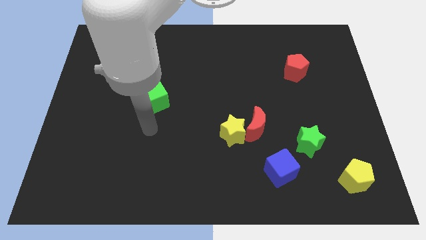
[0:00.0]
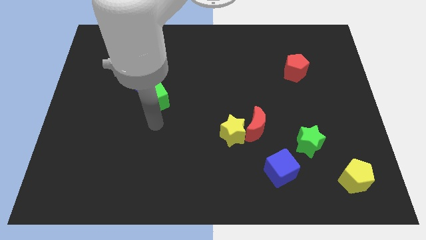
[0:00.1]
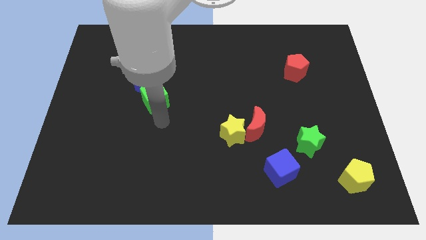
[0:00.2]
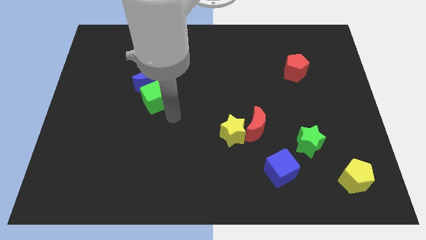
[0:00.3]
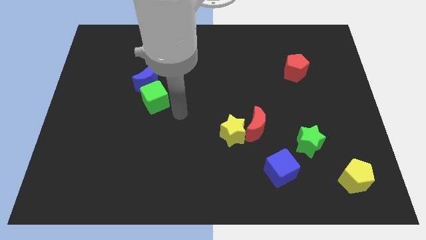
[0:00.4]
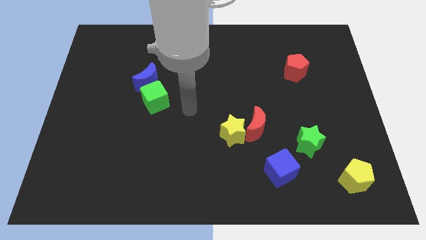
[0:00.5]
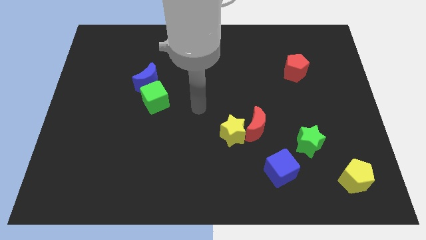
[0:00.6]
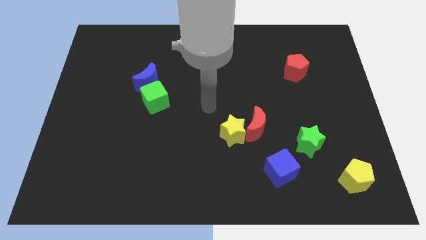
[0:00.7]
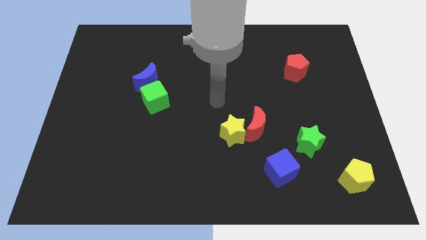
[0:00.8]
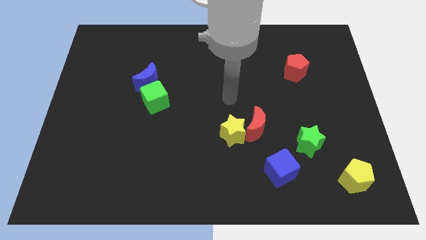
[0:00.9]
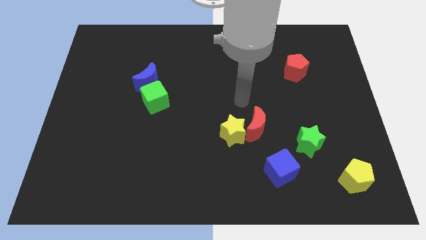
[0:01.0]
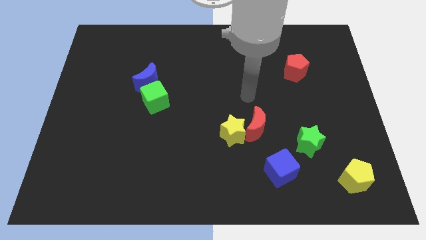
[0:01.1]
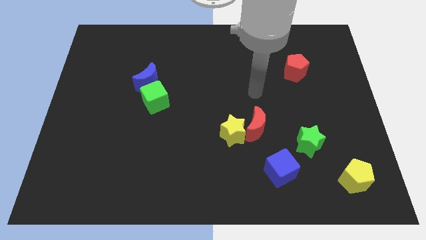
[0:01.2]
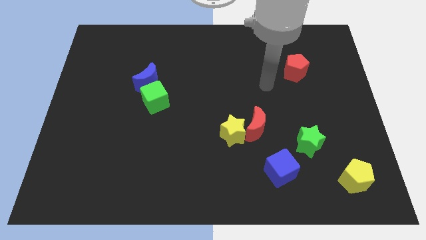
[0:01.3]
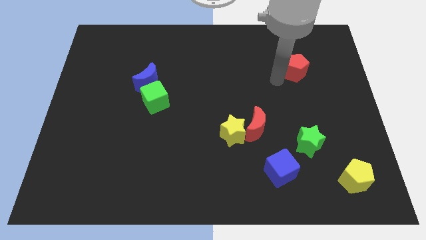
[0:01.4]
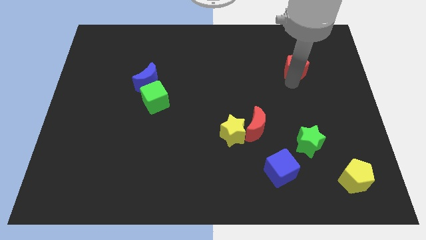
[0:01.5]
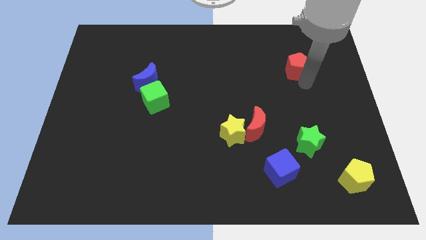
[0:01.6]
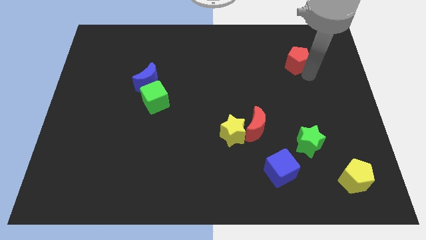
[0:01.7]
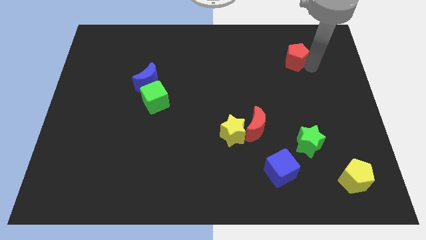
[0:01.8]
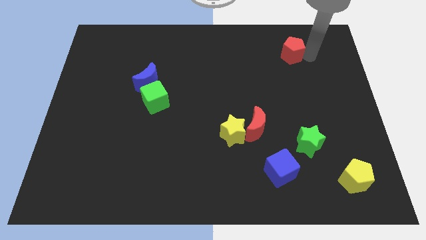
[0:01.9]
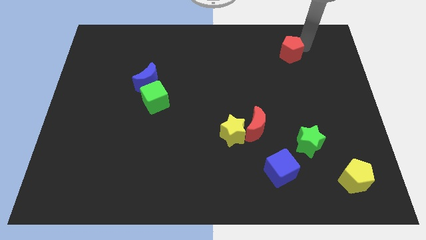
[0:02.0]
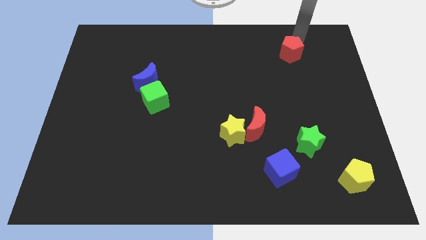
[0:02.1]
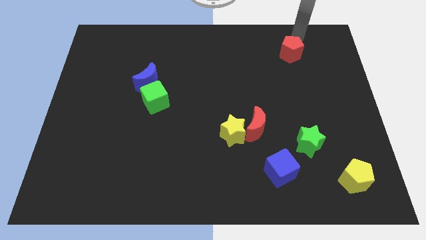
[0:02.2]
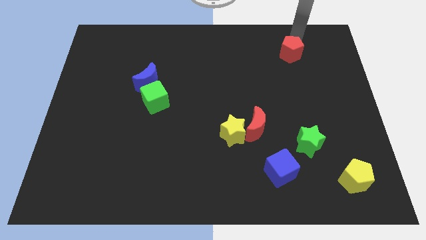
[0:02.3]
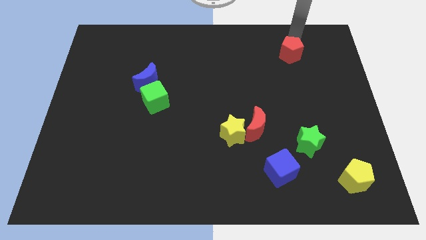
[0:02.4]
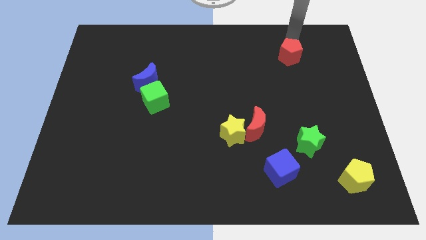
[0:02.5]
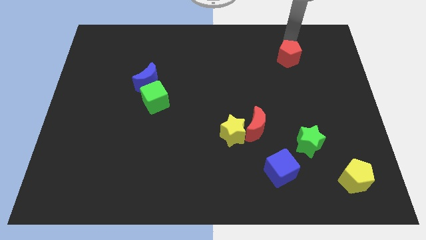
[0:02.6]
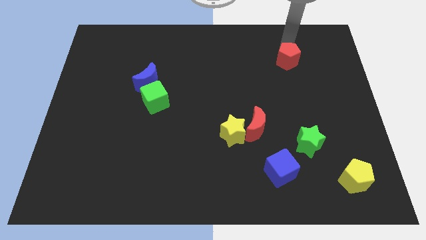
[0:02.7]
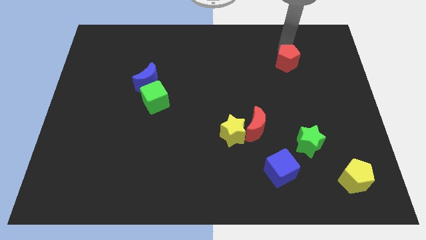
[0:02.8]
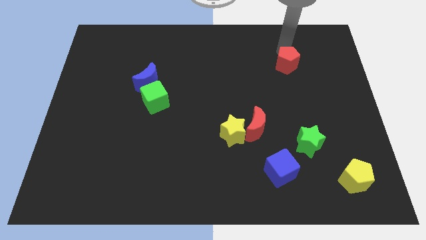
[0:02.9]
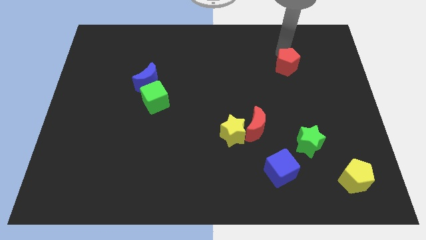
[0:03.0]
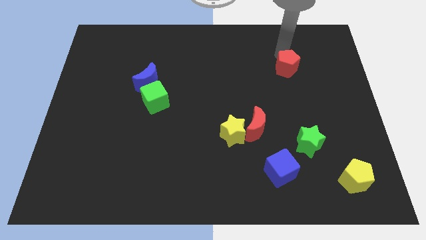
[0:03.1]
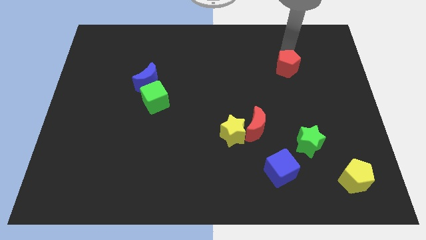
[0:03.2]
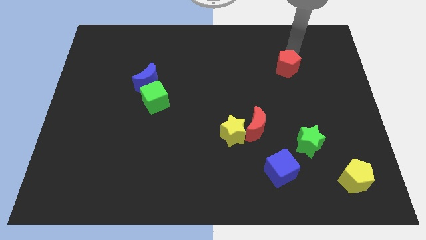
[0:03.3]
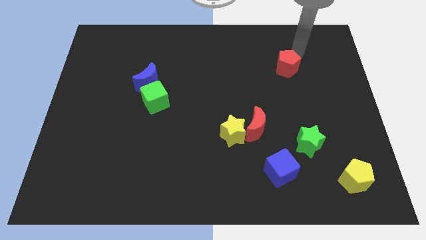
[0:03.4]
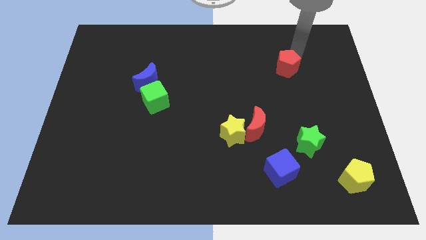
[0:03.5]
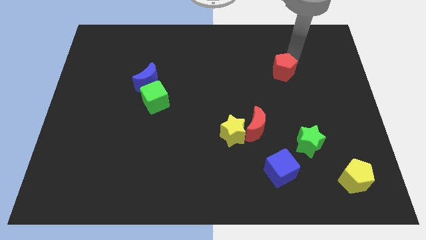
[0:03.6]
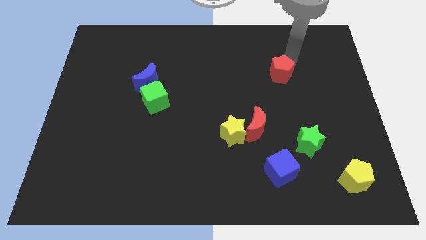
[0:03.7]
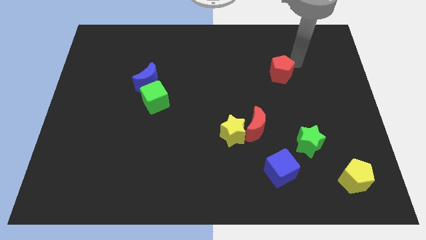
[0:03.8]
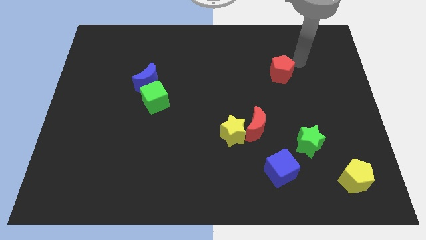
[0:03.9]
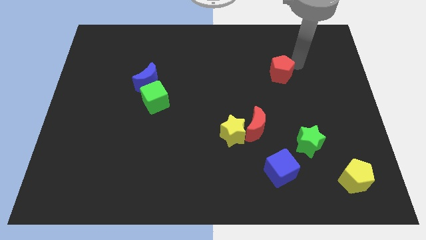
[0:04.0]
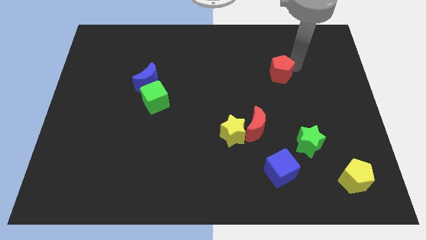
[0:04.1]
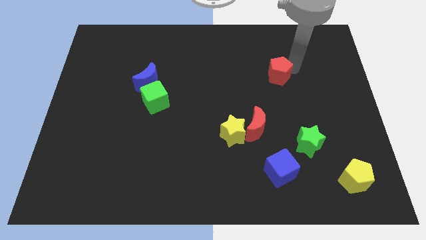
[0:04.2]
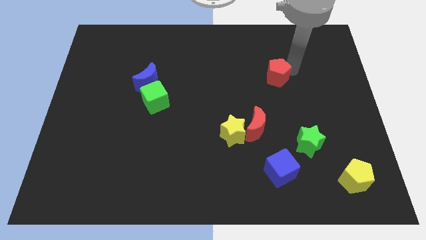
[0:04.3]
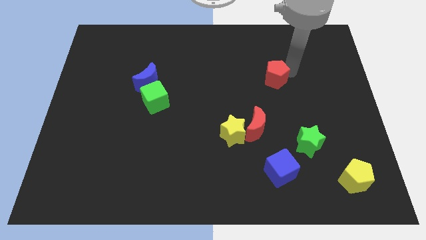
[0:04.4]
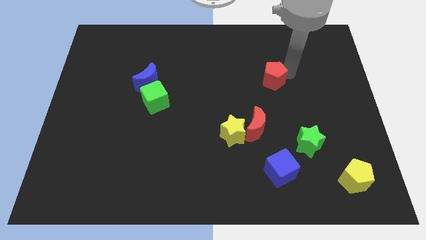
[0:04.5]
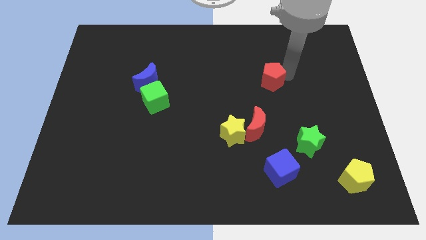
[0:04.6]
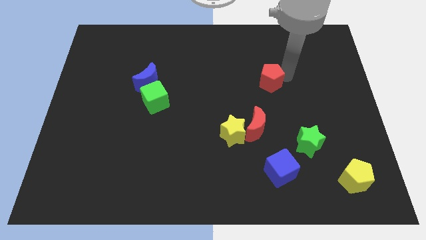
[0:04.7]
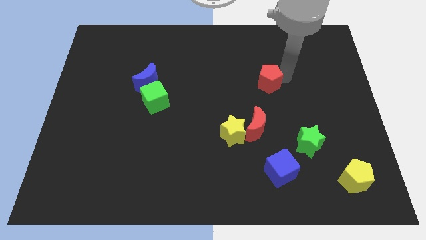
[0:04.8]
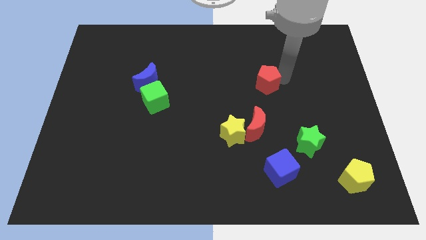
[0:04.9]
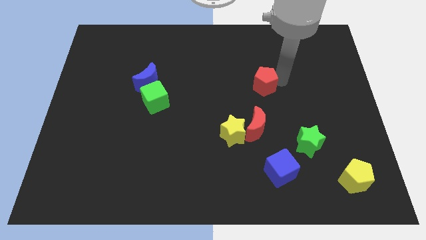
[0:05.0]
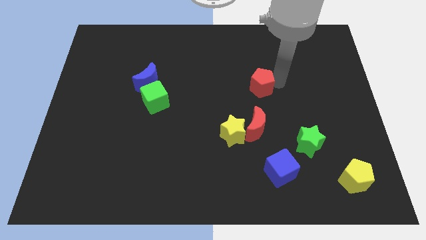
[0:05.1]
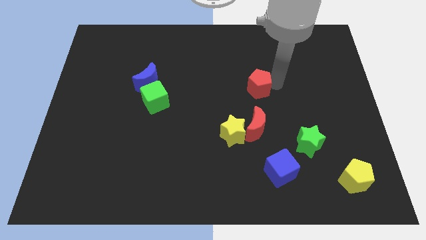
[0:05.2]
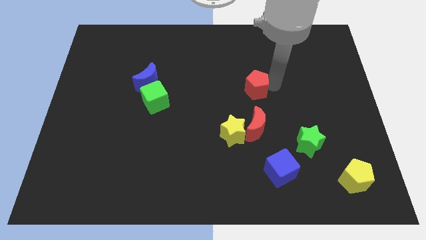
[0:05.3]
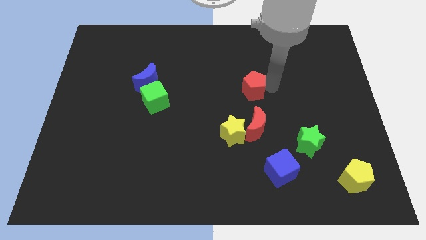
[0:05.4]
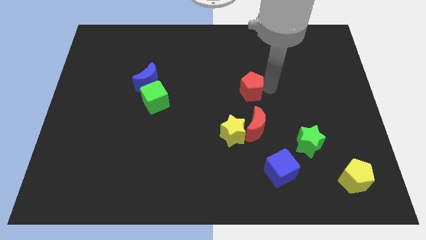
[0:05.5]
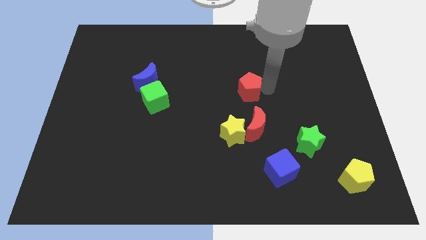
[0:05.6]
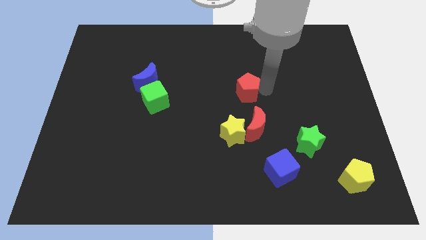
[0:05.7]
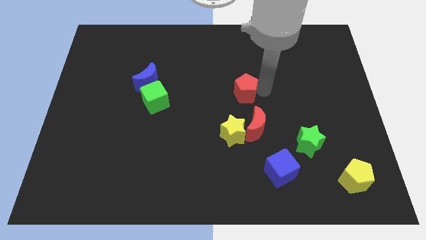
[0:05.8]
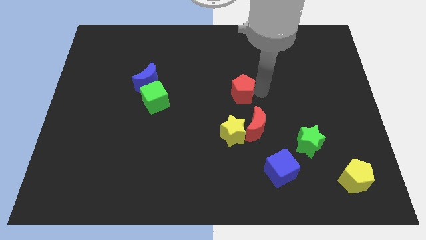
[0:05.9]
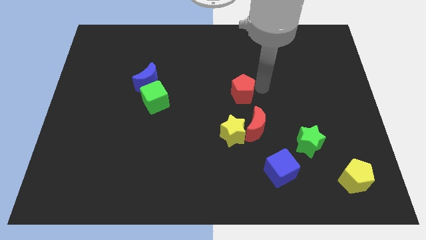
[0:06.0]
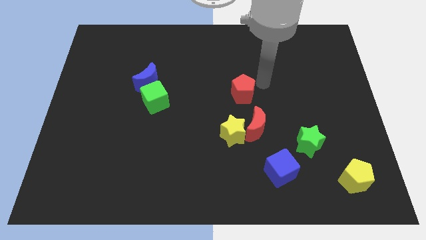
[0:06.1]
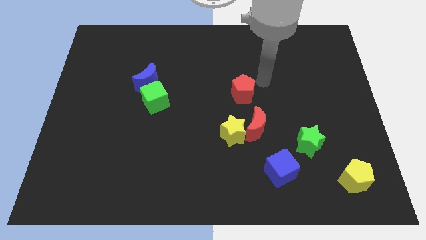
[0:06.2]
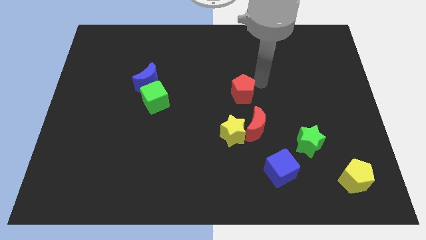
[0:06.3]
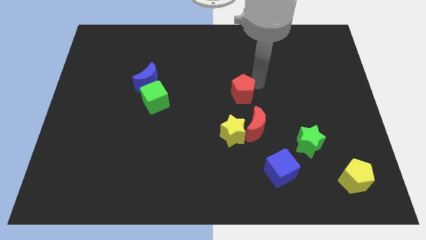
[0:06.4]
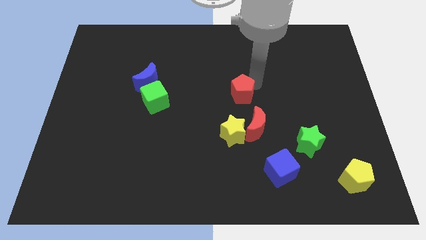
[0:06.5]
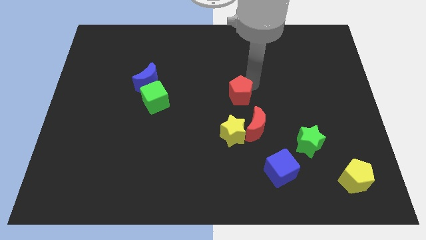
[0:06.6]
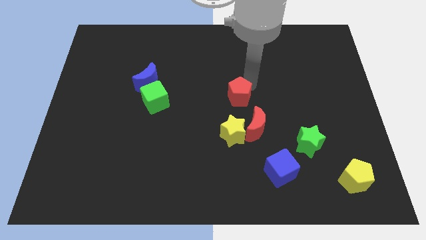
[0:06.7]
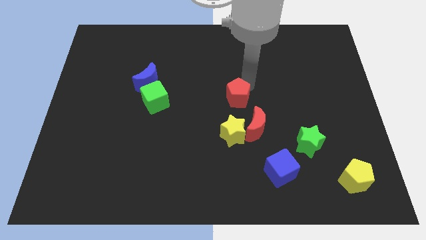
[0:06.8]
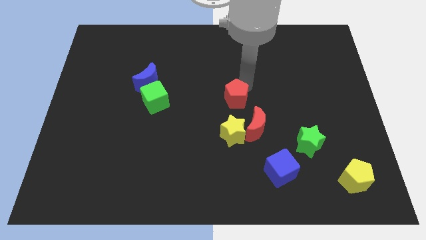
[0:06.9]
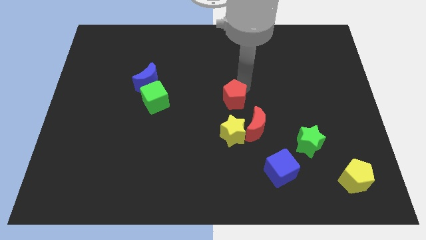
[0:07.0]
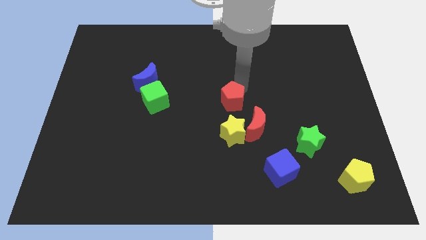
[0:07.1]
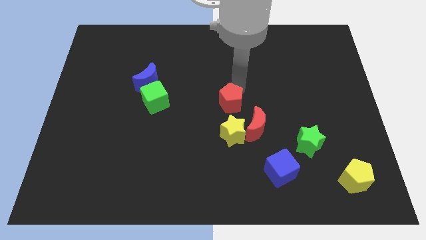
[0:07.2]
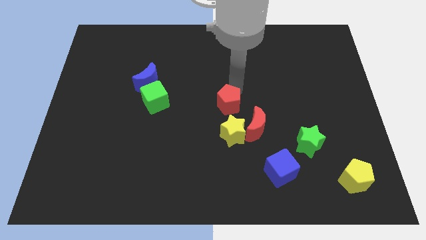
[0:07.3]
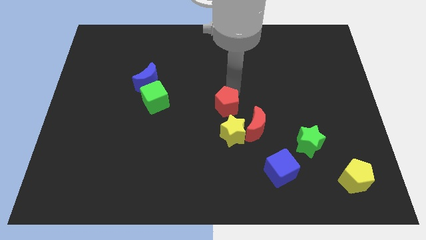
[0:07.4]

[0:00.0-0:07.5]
put the red pentagon diagonally up and to the left of the yellow star
